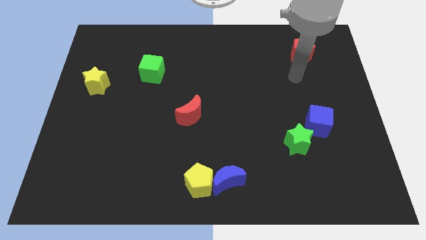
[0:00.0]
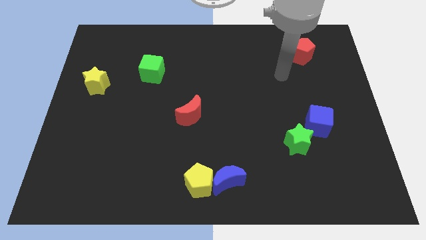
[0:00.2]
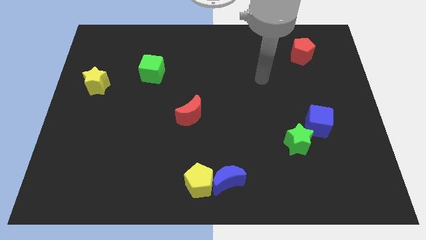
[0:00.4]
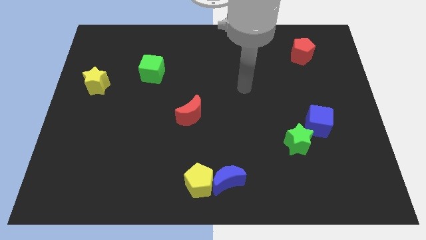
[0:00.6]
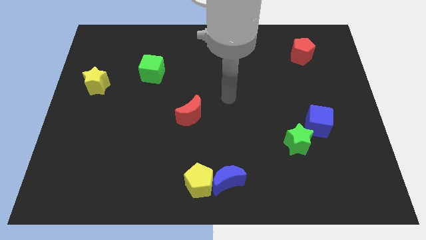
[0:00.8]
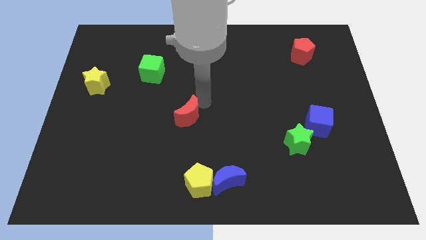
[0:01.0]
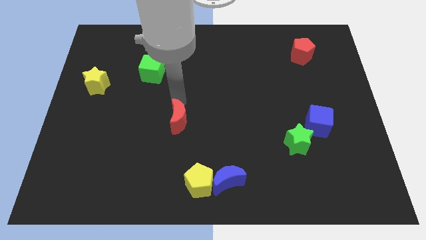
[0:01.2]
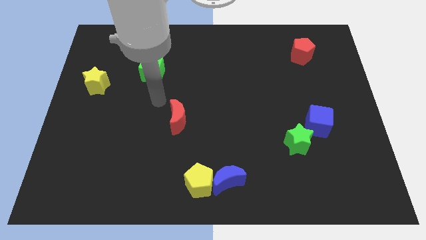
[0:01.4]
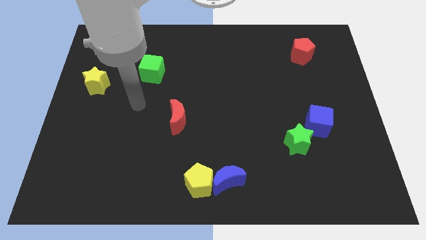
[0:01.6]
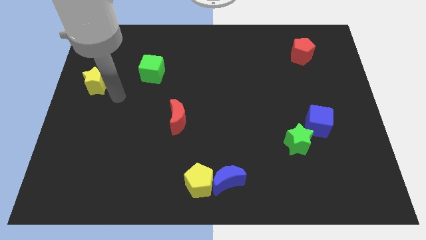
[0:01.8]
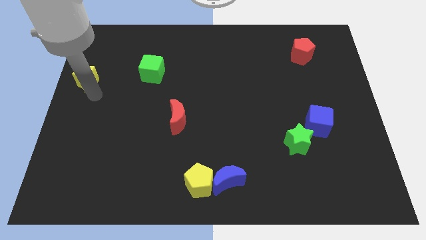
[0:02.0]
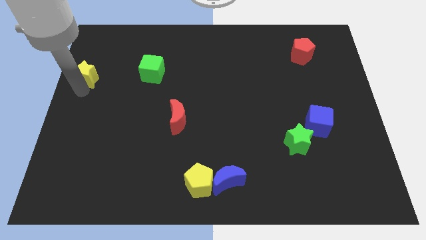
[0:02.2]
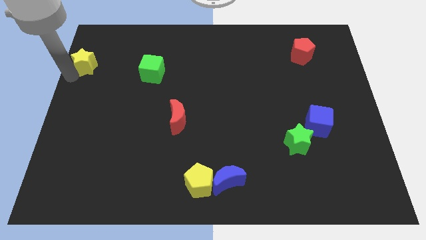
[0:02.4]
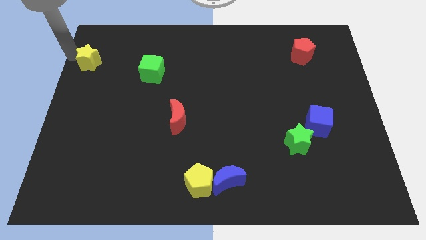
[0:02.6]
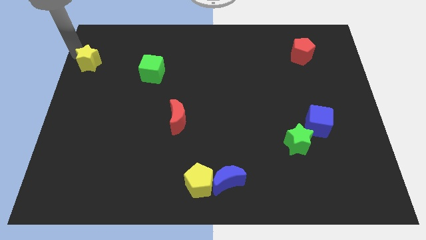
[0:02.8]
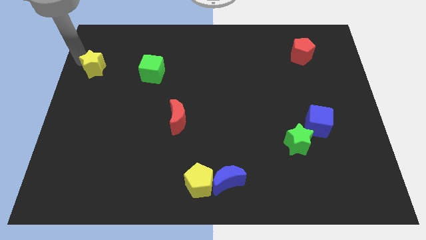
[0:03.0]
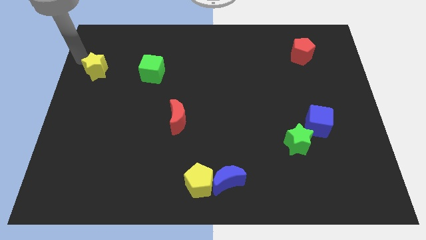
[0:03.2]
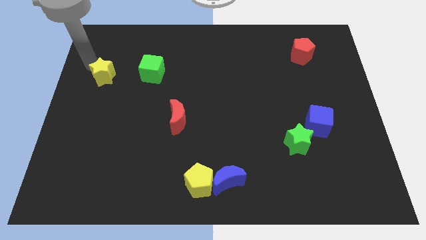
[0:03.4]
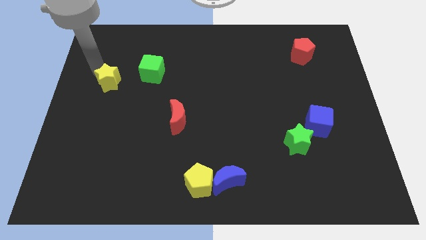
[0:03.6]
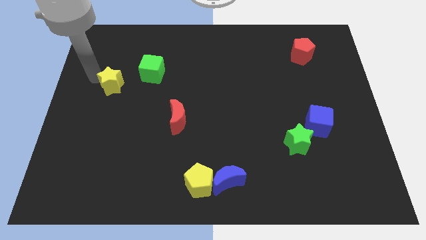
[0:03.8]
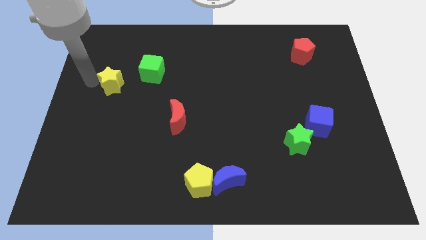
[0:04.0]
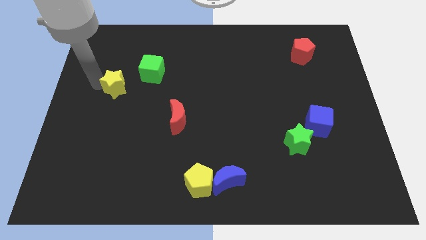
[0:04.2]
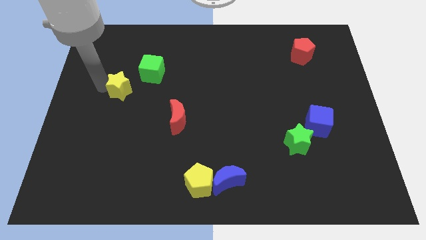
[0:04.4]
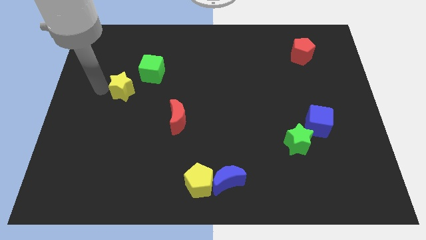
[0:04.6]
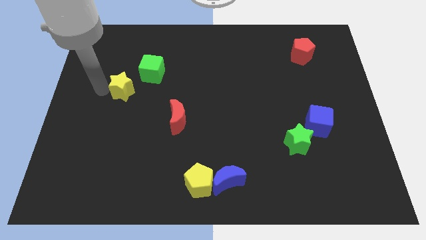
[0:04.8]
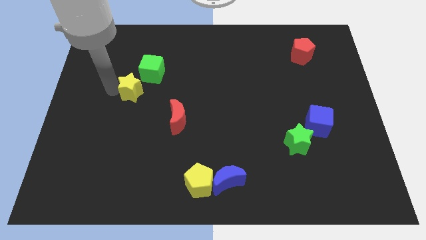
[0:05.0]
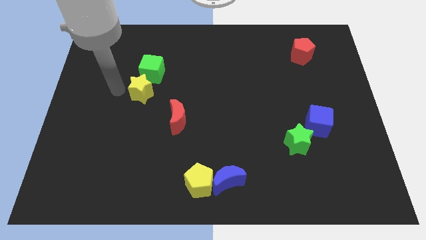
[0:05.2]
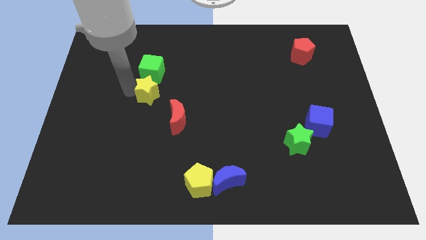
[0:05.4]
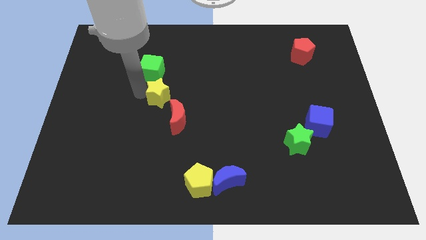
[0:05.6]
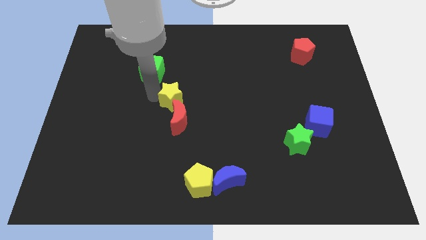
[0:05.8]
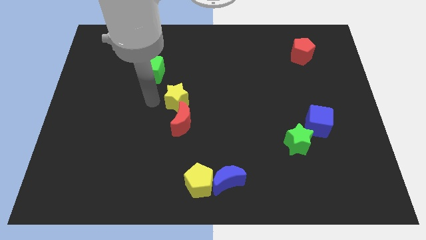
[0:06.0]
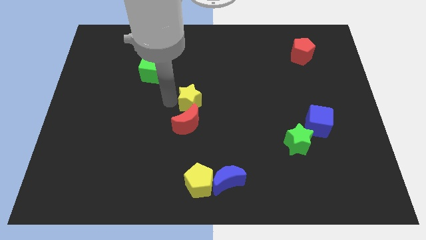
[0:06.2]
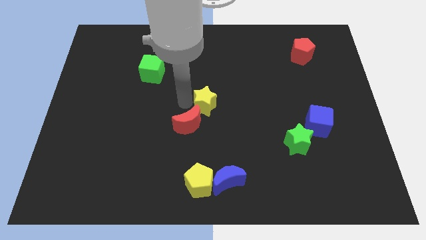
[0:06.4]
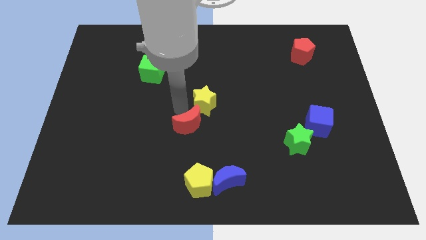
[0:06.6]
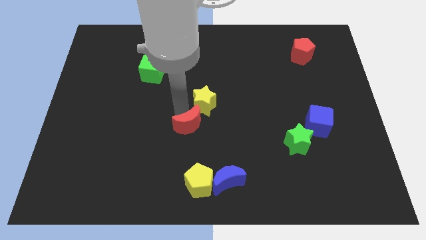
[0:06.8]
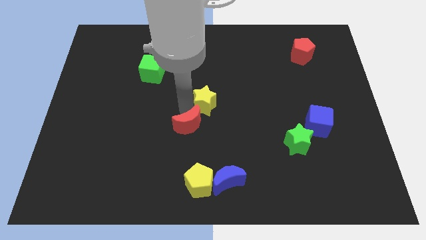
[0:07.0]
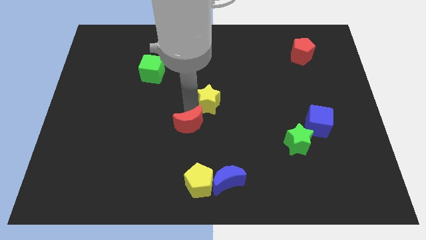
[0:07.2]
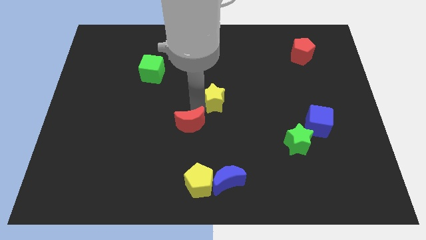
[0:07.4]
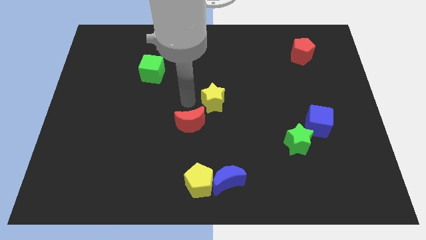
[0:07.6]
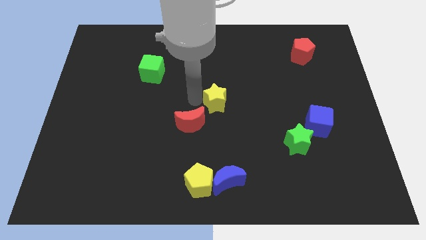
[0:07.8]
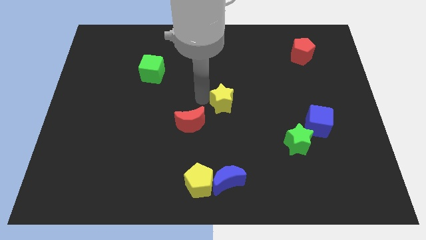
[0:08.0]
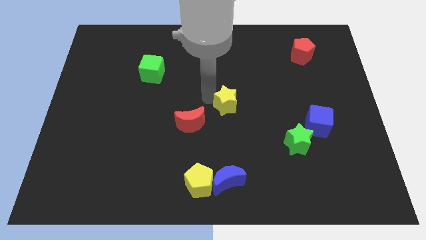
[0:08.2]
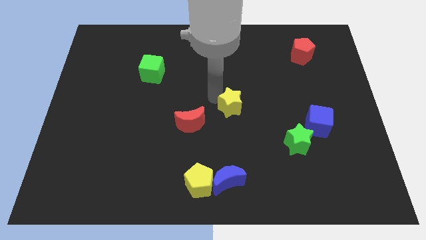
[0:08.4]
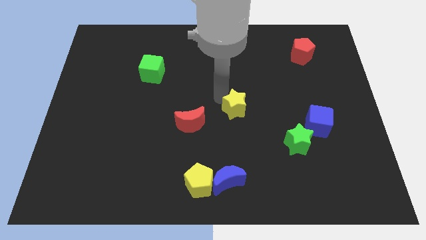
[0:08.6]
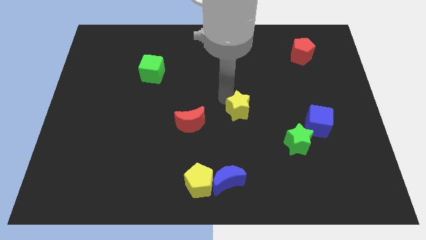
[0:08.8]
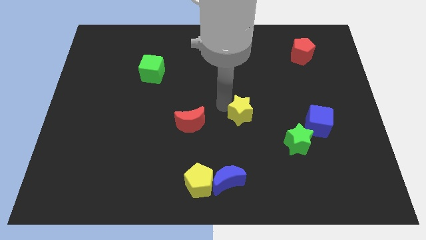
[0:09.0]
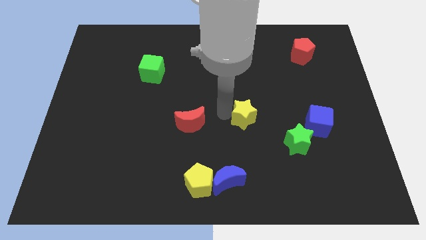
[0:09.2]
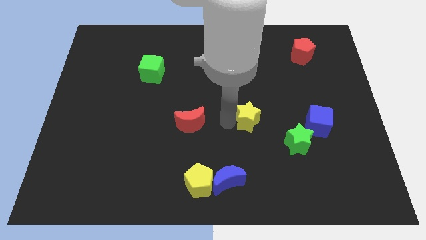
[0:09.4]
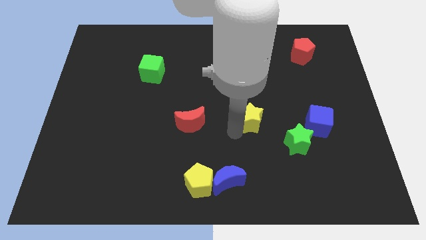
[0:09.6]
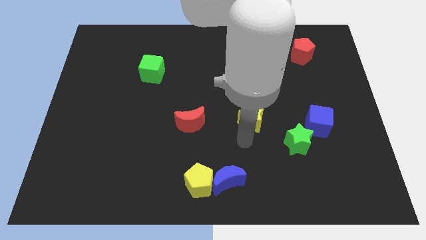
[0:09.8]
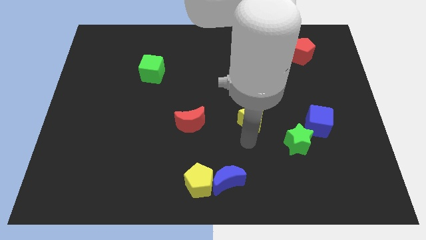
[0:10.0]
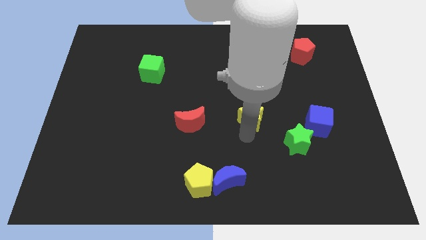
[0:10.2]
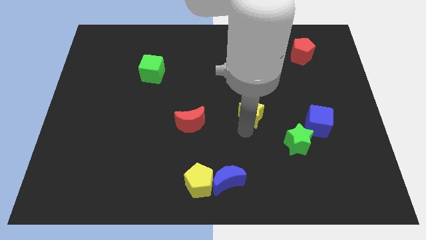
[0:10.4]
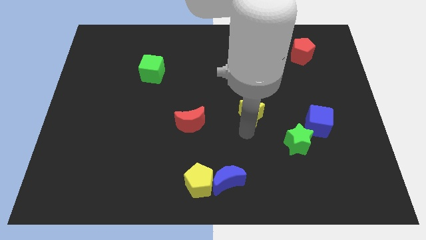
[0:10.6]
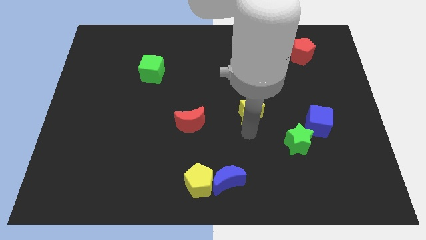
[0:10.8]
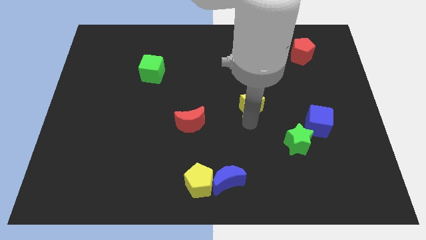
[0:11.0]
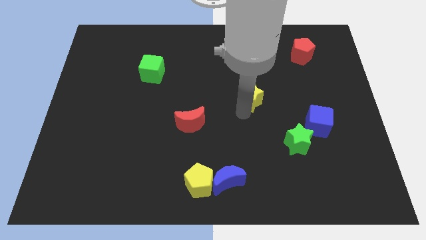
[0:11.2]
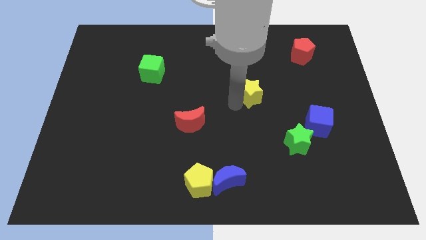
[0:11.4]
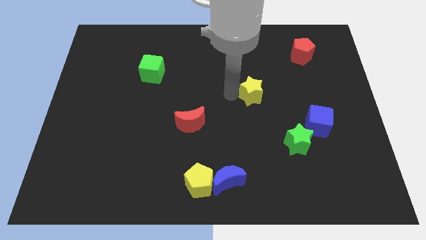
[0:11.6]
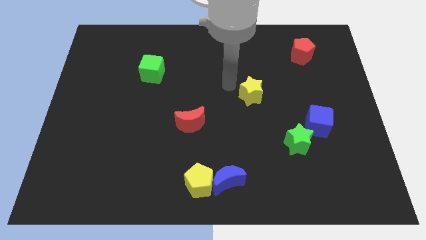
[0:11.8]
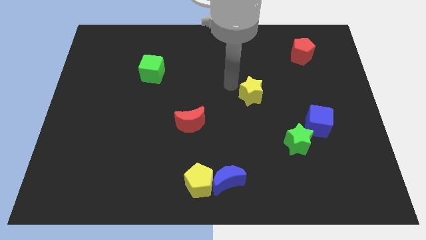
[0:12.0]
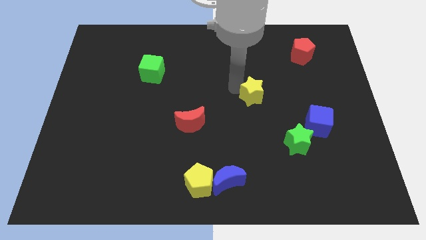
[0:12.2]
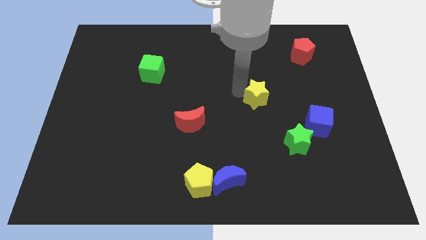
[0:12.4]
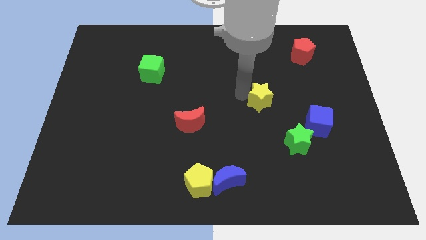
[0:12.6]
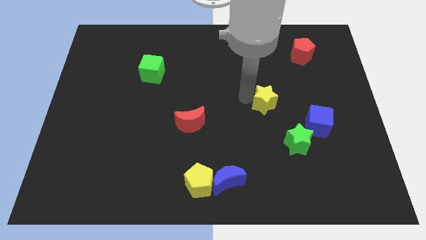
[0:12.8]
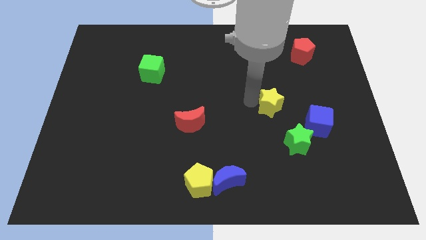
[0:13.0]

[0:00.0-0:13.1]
slide the yellow star to the top left side of the blue cube

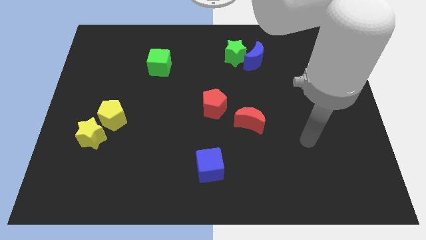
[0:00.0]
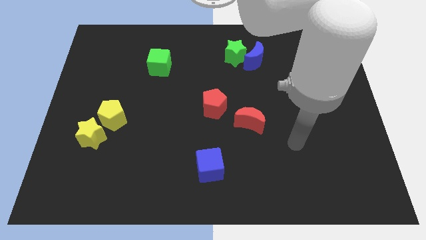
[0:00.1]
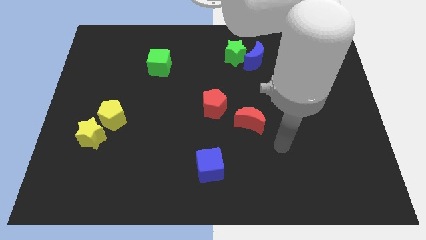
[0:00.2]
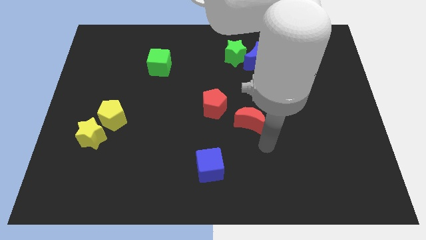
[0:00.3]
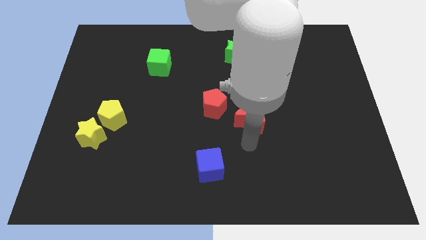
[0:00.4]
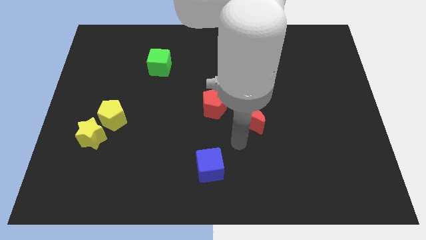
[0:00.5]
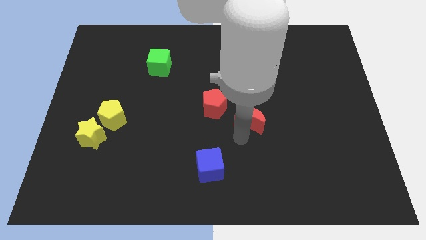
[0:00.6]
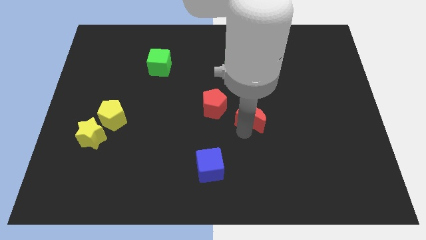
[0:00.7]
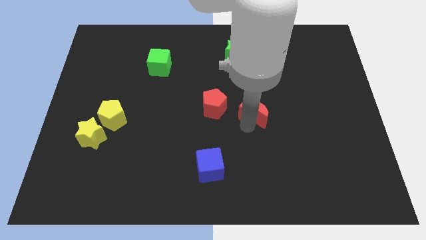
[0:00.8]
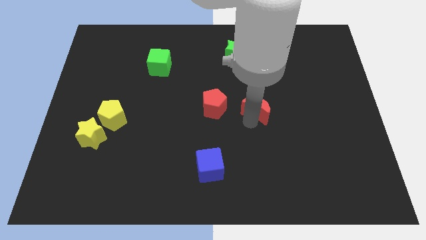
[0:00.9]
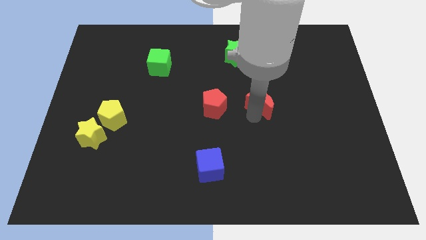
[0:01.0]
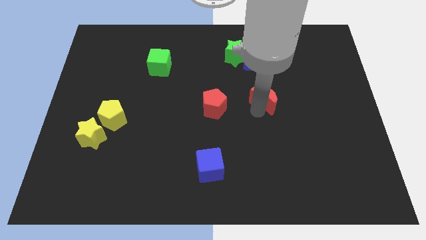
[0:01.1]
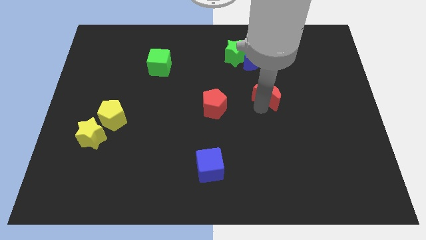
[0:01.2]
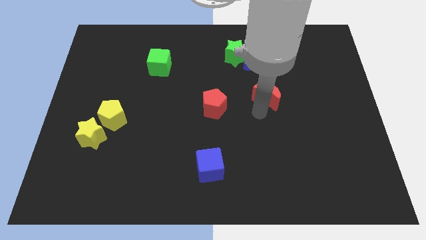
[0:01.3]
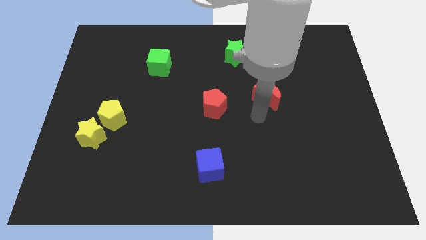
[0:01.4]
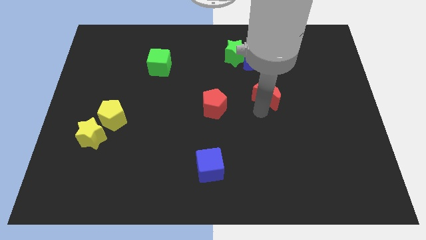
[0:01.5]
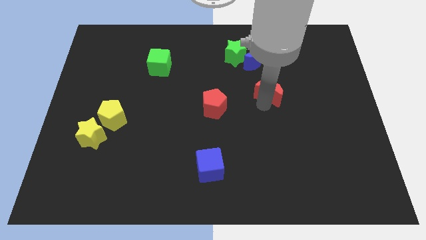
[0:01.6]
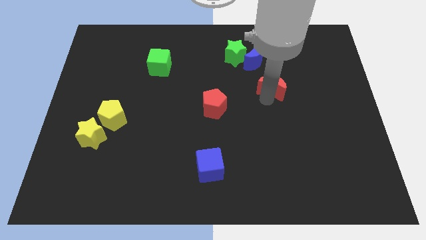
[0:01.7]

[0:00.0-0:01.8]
push the red moon diagonally down and to the right of the blue moon
